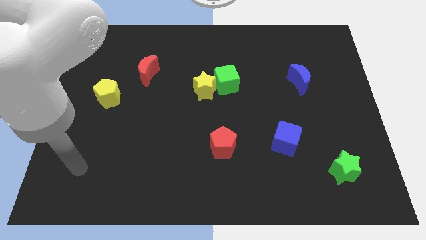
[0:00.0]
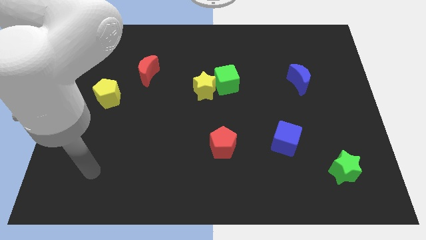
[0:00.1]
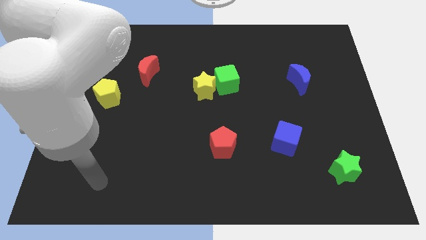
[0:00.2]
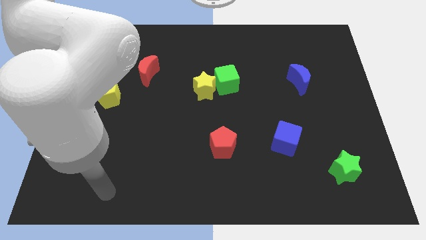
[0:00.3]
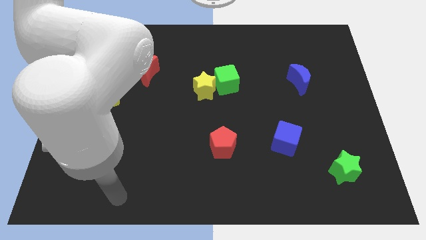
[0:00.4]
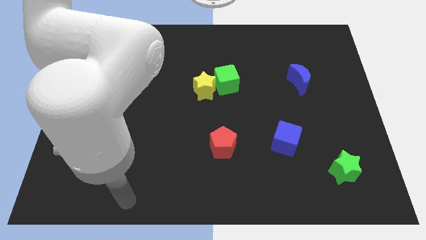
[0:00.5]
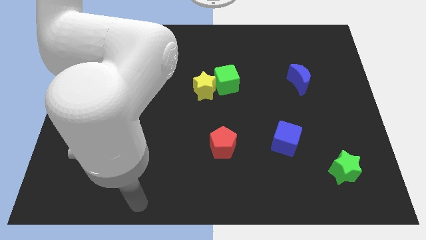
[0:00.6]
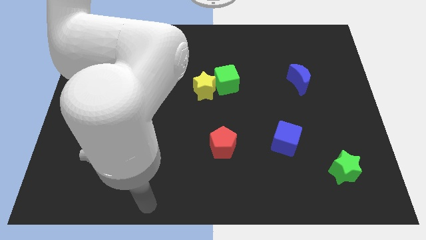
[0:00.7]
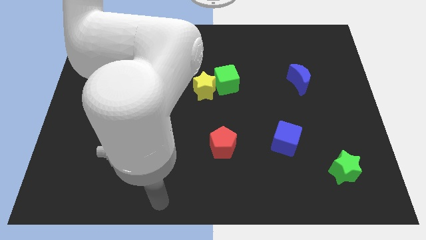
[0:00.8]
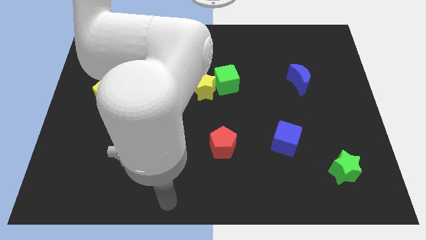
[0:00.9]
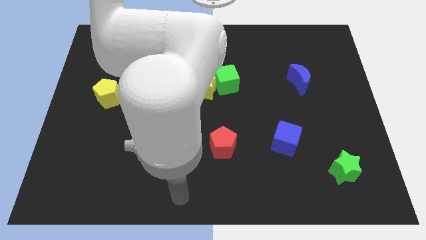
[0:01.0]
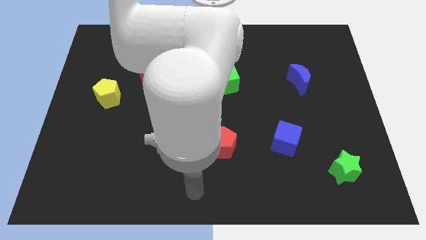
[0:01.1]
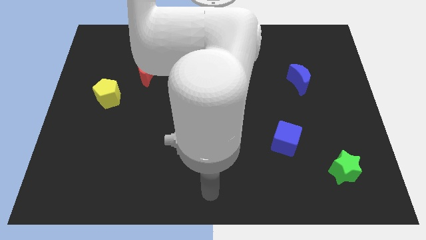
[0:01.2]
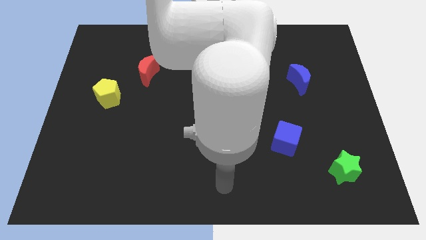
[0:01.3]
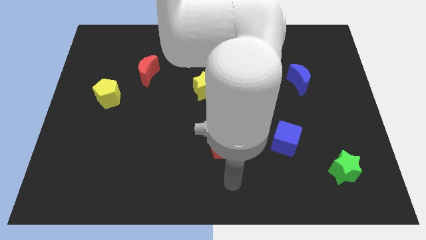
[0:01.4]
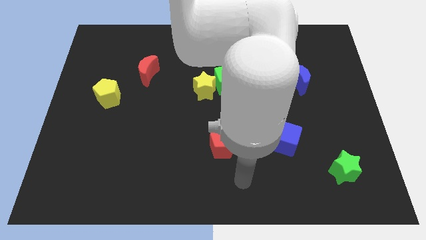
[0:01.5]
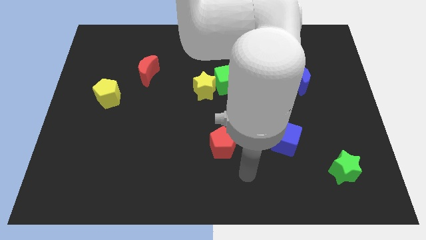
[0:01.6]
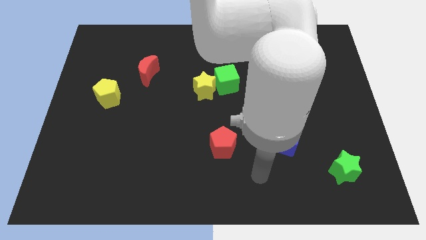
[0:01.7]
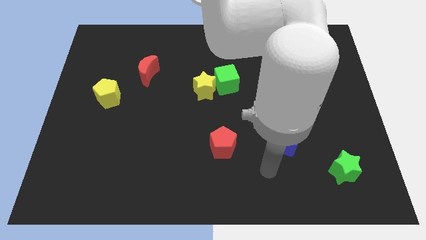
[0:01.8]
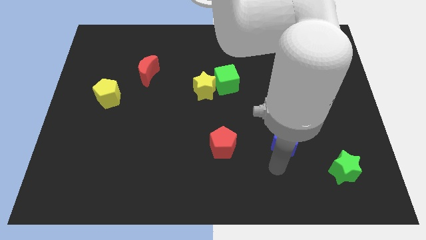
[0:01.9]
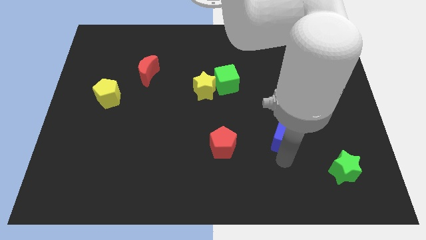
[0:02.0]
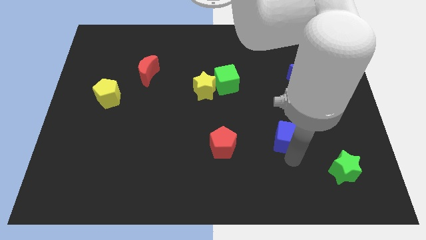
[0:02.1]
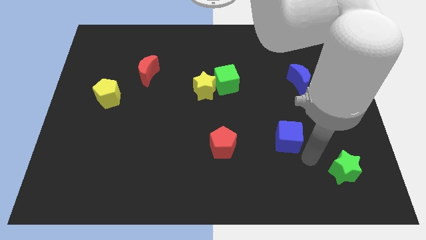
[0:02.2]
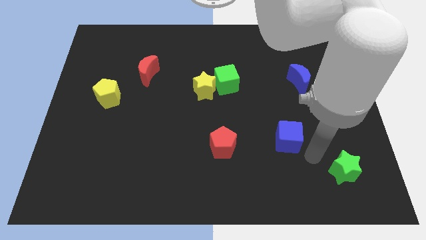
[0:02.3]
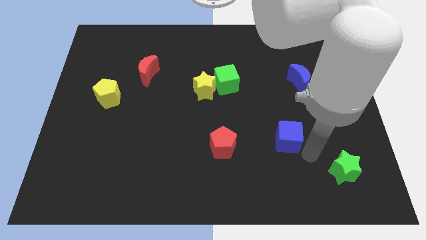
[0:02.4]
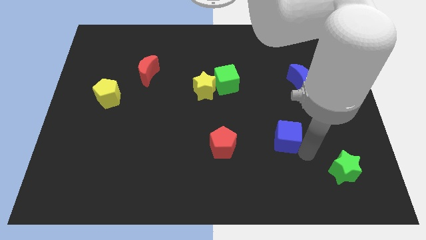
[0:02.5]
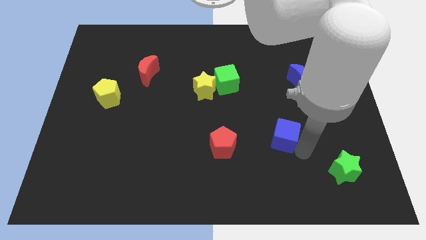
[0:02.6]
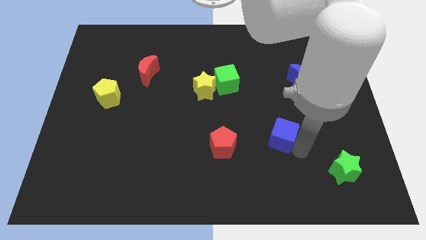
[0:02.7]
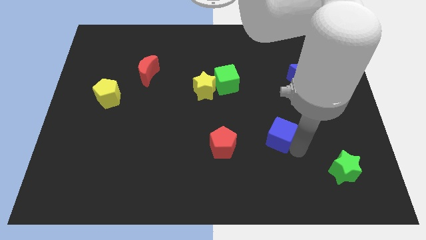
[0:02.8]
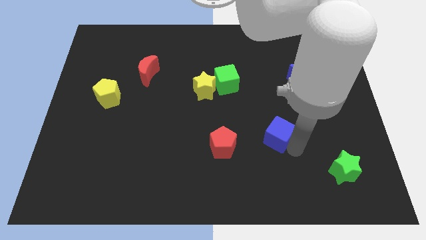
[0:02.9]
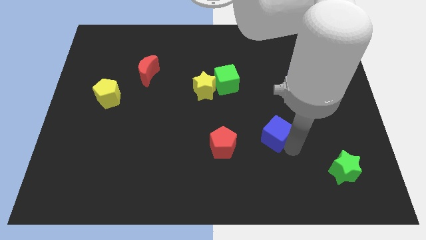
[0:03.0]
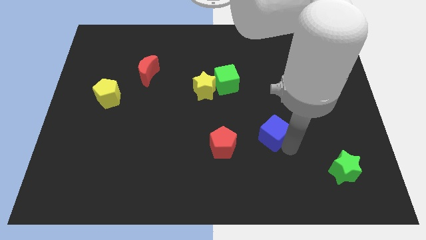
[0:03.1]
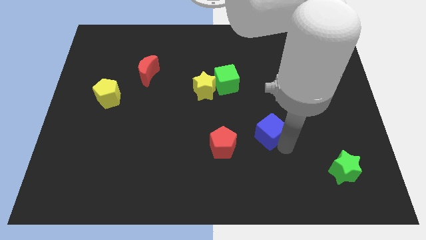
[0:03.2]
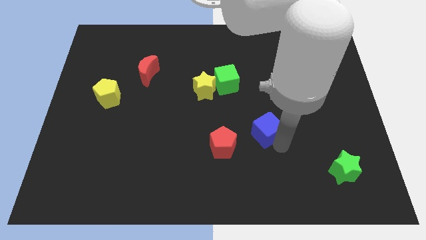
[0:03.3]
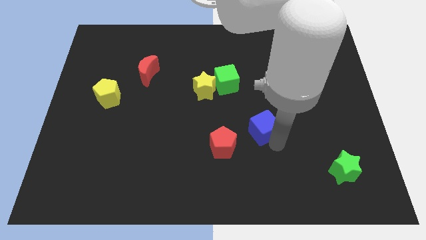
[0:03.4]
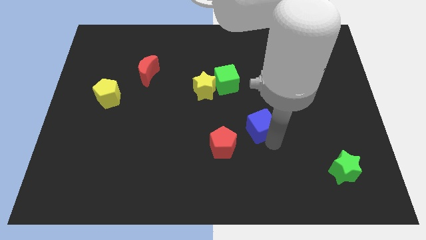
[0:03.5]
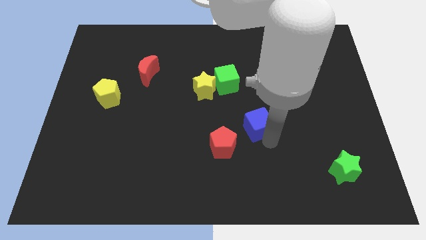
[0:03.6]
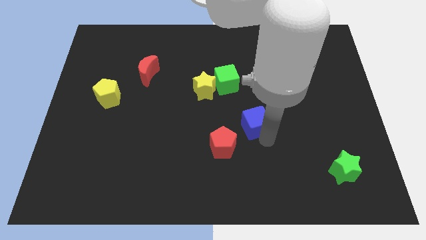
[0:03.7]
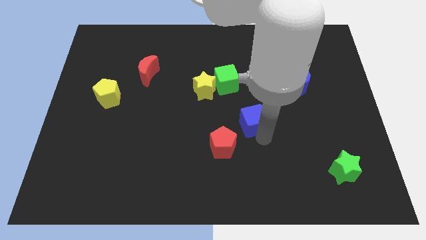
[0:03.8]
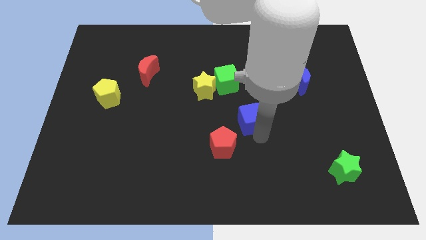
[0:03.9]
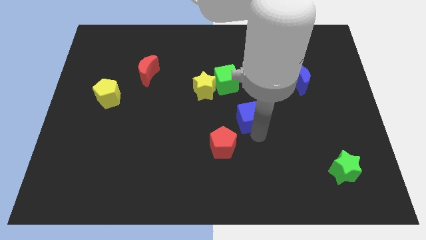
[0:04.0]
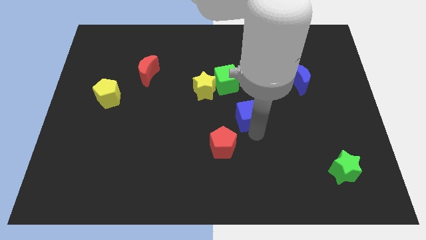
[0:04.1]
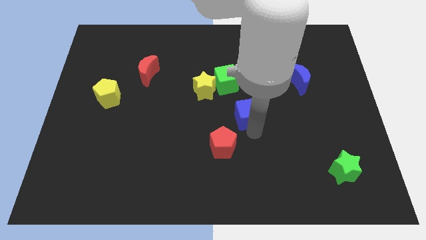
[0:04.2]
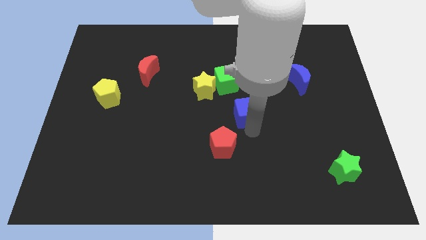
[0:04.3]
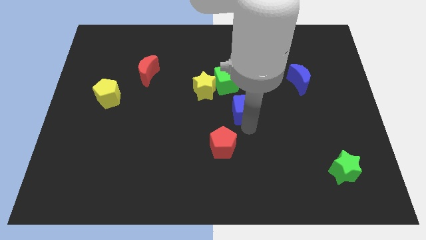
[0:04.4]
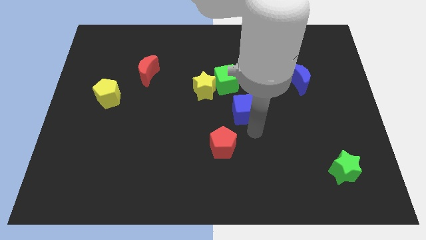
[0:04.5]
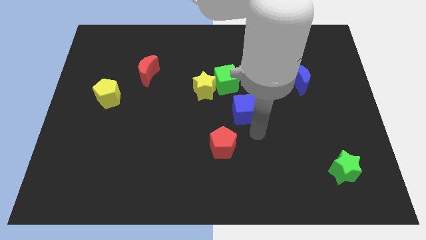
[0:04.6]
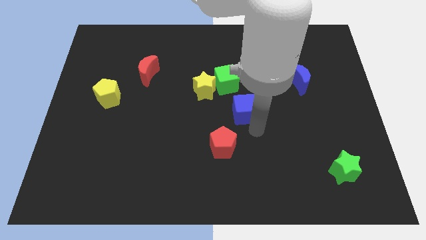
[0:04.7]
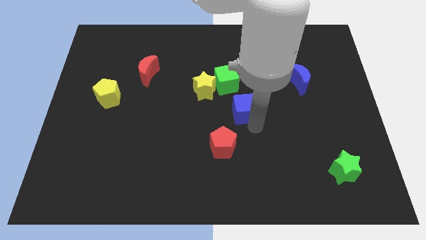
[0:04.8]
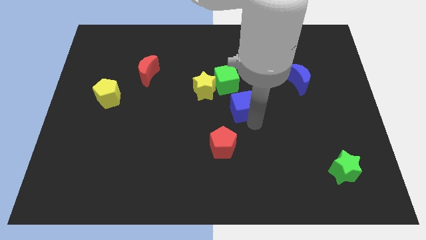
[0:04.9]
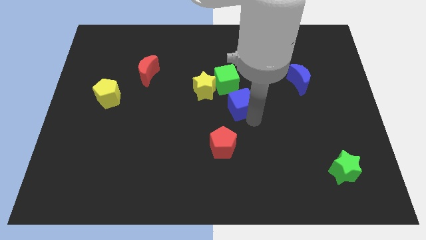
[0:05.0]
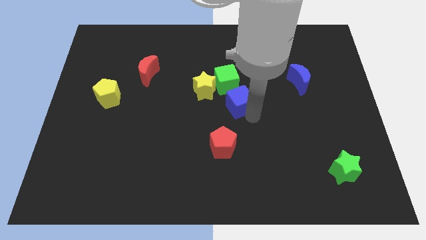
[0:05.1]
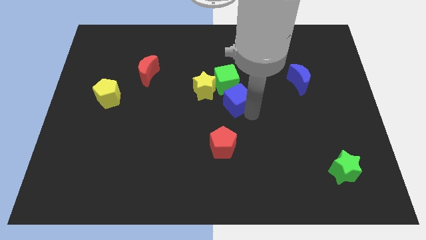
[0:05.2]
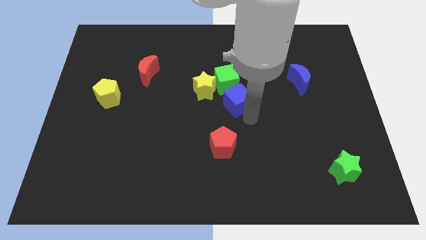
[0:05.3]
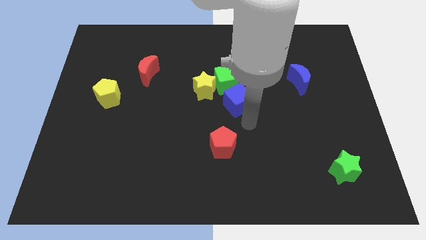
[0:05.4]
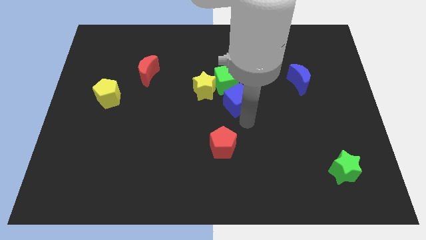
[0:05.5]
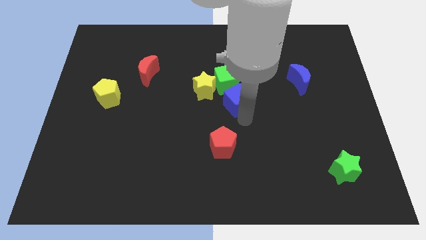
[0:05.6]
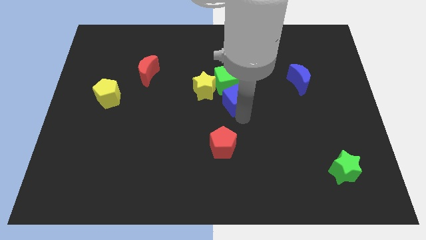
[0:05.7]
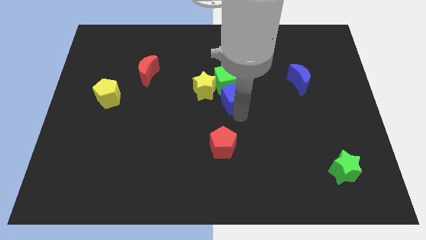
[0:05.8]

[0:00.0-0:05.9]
put the blue cube towards the green cube

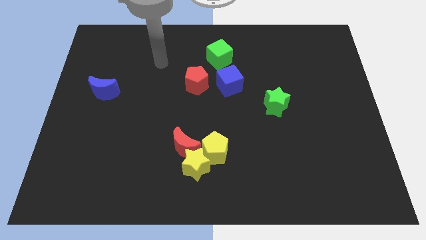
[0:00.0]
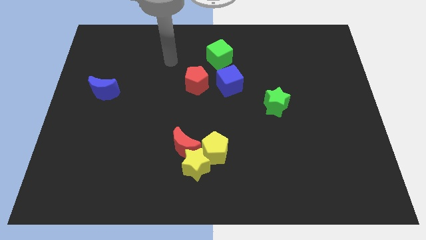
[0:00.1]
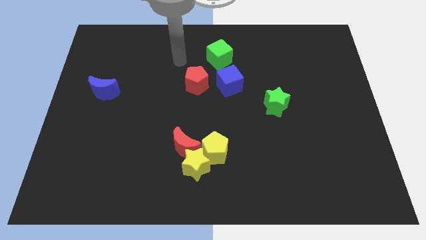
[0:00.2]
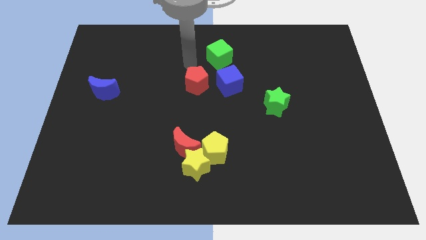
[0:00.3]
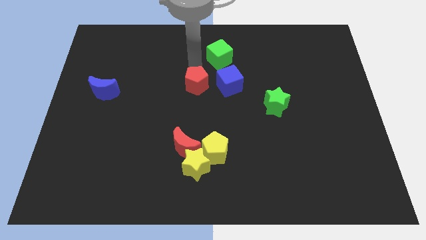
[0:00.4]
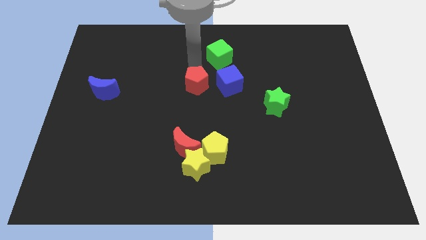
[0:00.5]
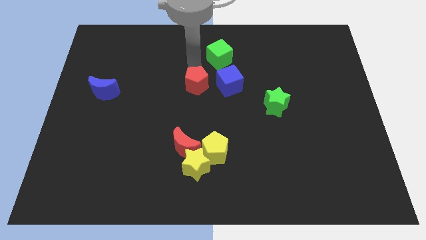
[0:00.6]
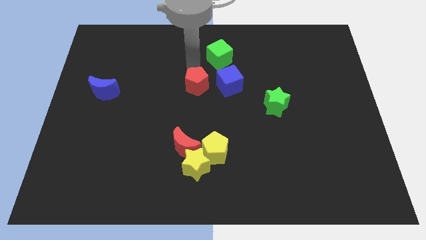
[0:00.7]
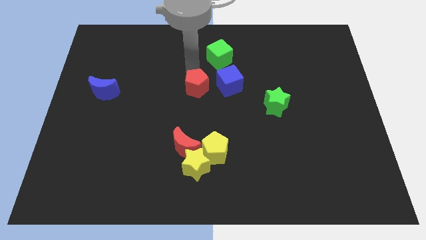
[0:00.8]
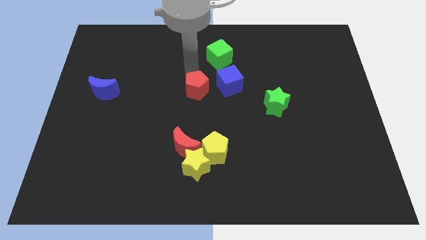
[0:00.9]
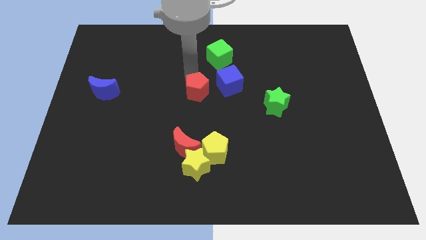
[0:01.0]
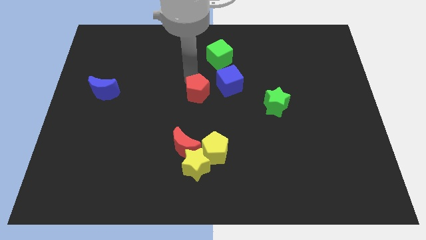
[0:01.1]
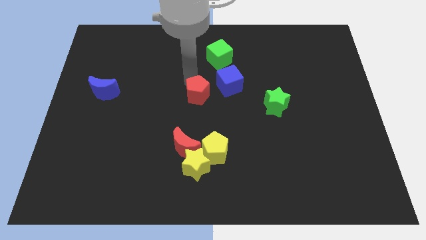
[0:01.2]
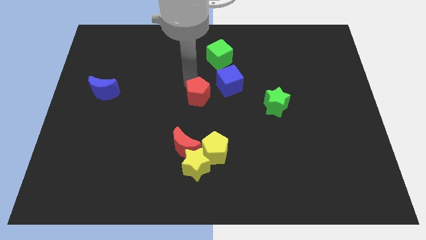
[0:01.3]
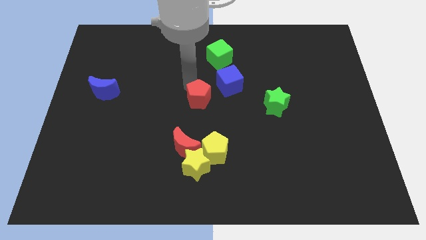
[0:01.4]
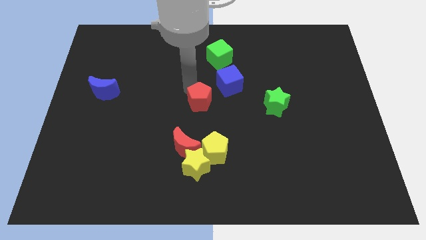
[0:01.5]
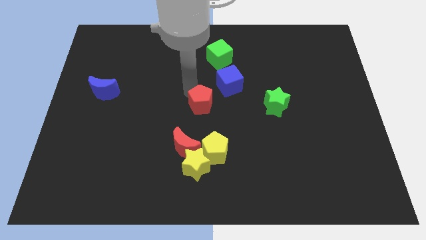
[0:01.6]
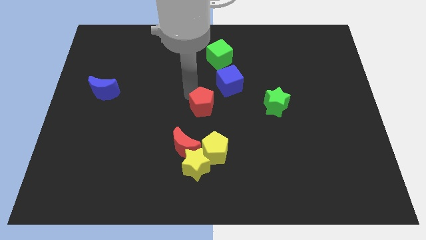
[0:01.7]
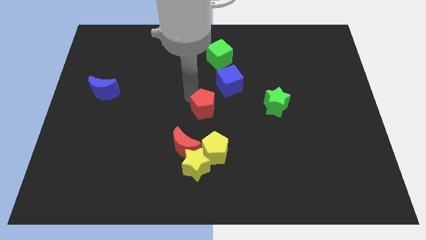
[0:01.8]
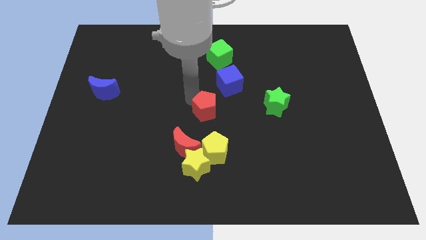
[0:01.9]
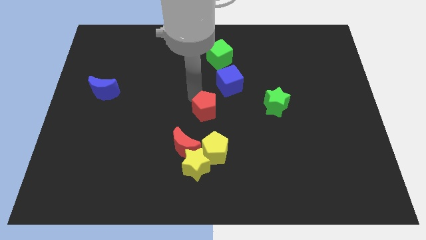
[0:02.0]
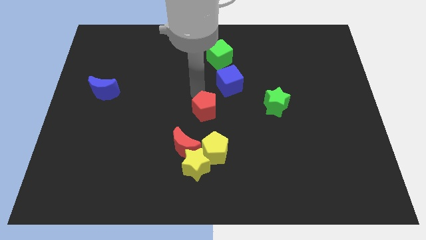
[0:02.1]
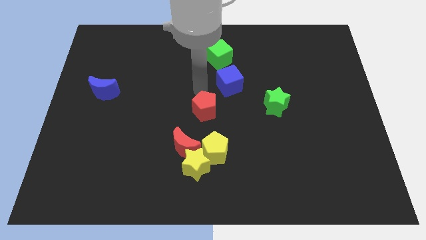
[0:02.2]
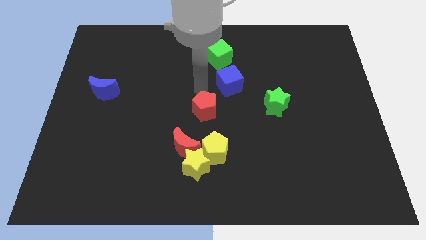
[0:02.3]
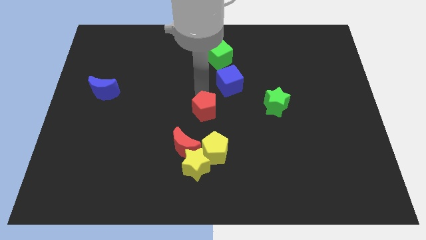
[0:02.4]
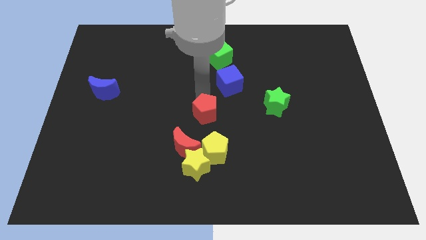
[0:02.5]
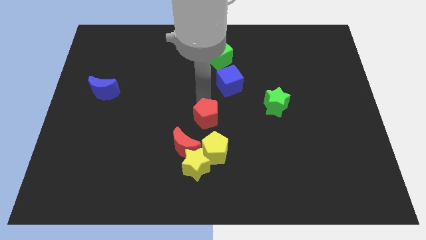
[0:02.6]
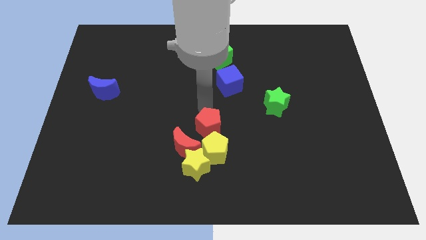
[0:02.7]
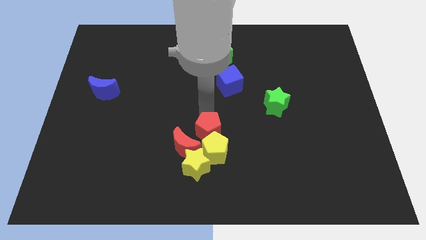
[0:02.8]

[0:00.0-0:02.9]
slide the red pentagon next to the yellow pentagon
